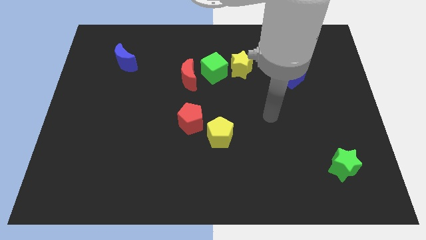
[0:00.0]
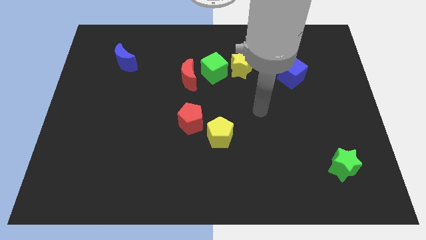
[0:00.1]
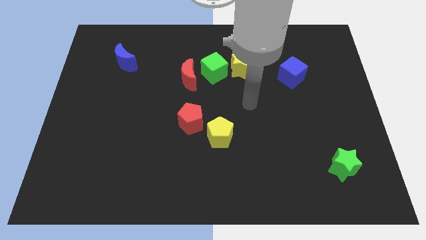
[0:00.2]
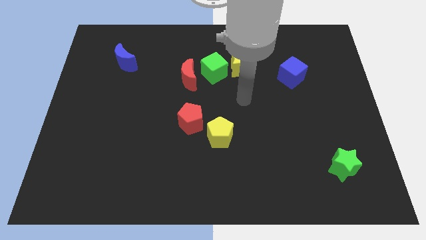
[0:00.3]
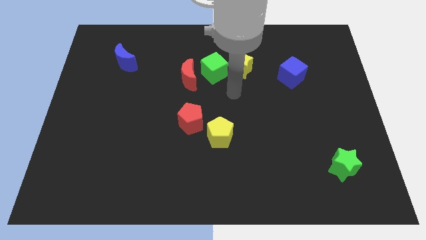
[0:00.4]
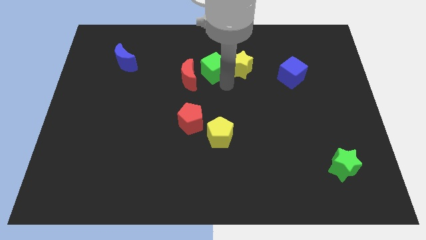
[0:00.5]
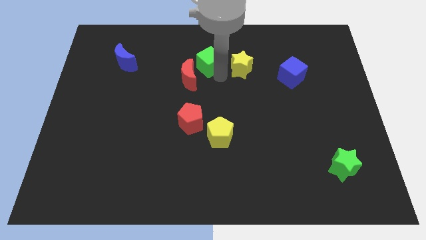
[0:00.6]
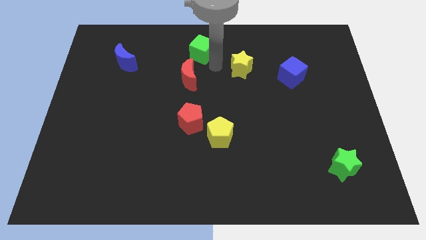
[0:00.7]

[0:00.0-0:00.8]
separate the yellow star from the green cube

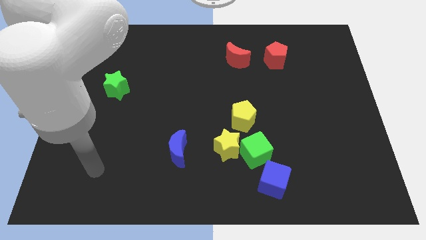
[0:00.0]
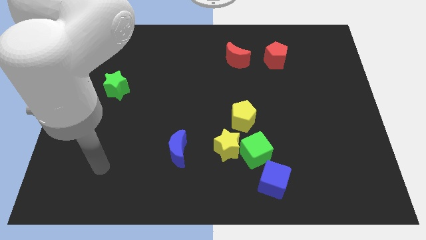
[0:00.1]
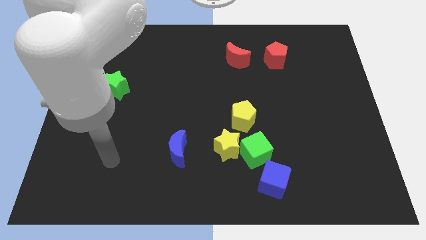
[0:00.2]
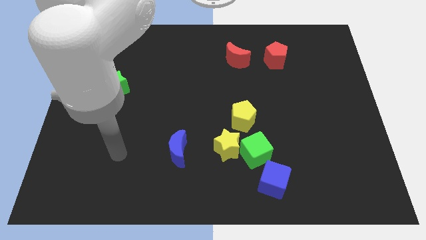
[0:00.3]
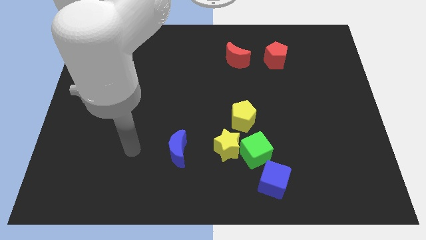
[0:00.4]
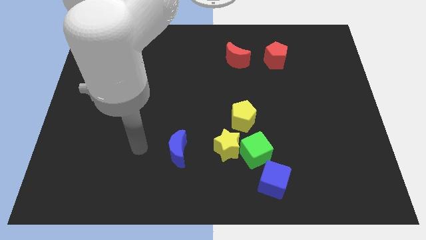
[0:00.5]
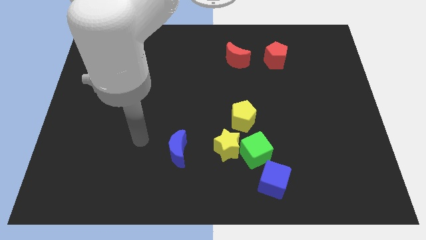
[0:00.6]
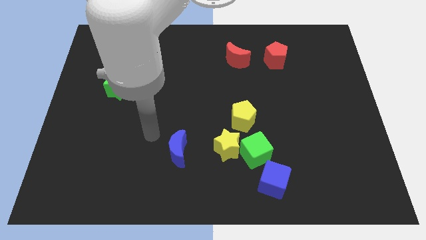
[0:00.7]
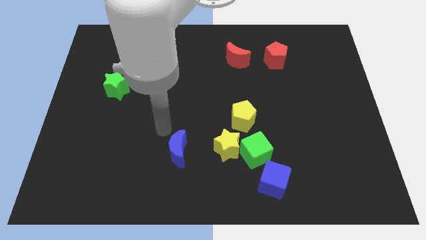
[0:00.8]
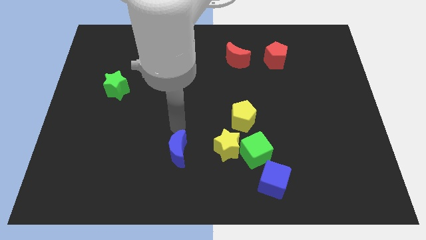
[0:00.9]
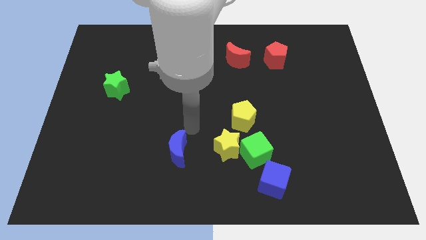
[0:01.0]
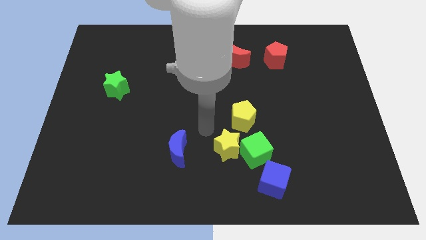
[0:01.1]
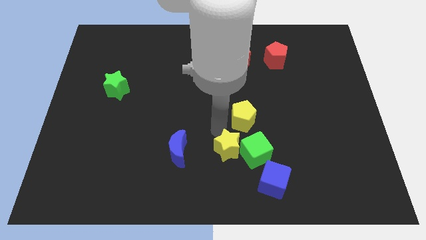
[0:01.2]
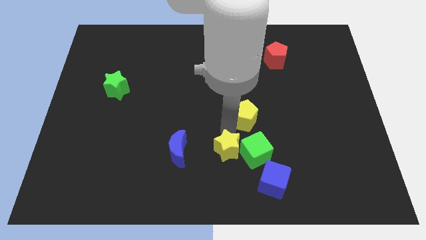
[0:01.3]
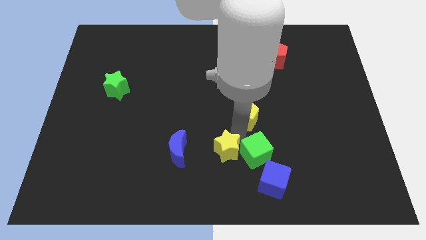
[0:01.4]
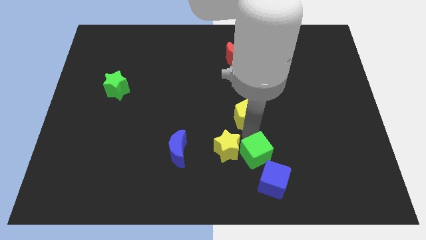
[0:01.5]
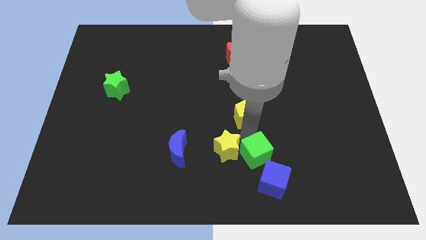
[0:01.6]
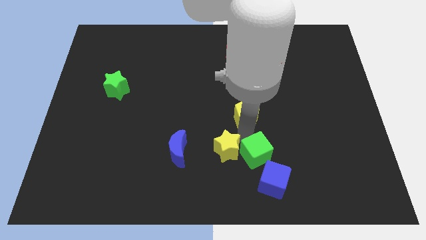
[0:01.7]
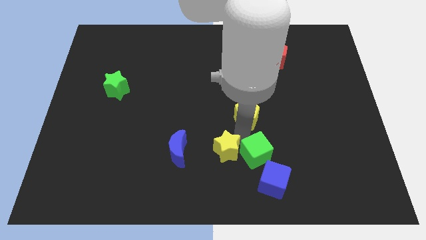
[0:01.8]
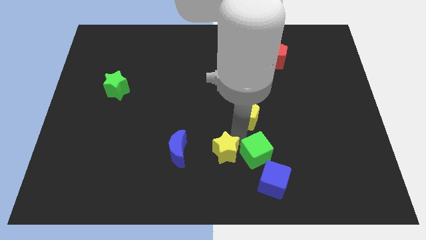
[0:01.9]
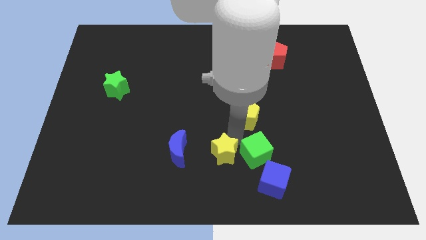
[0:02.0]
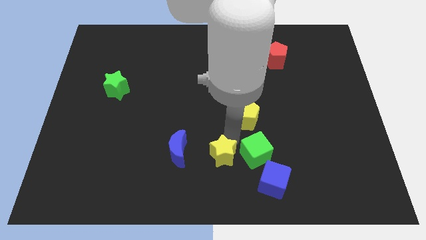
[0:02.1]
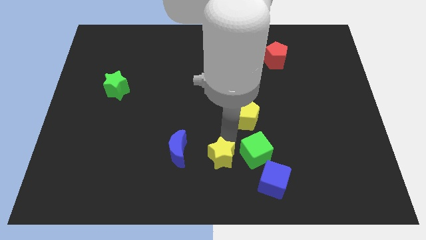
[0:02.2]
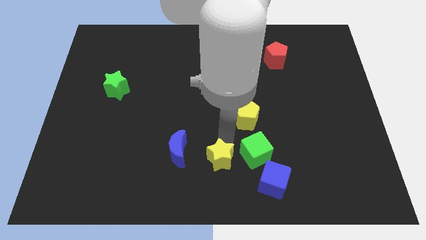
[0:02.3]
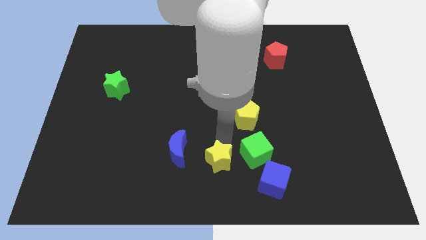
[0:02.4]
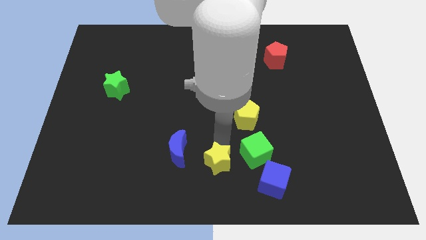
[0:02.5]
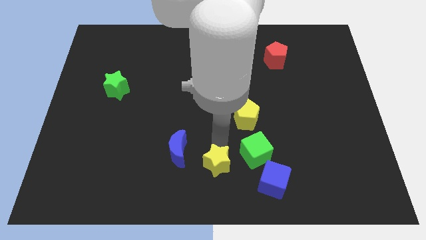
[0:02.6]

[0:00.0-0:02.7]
move the yellow star away from the green cube and yellow pentagon

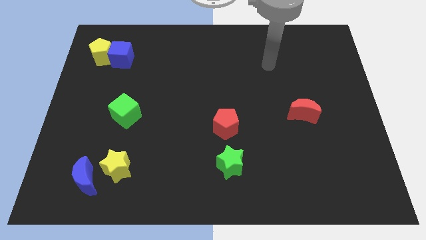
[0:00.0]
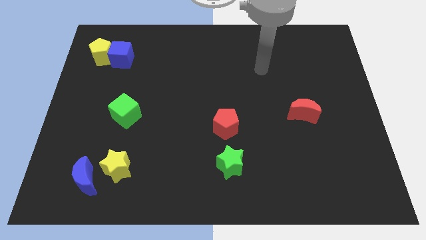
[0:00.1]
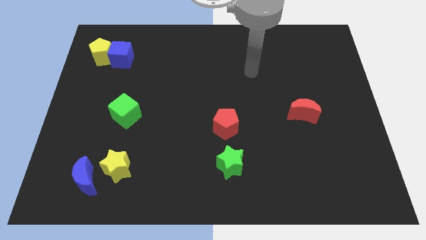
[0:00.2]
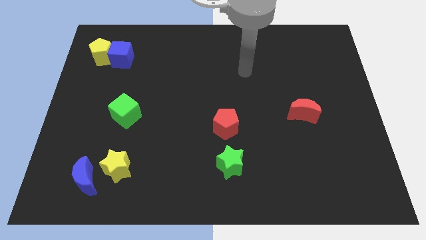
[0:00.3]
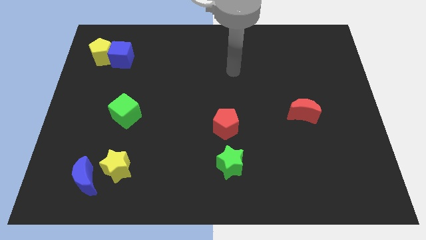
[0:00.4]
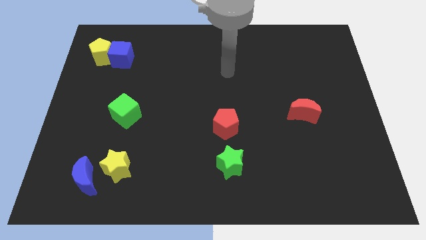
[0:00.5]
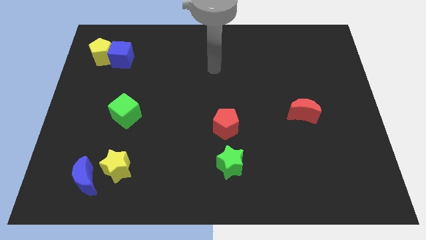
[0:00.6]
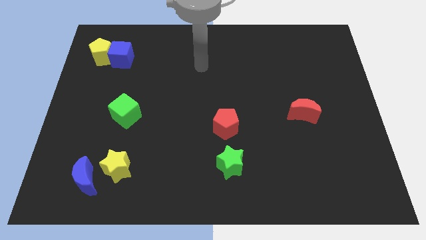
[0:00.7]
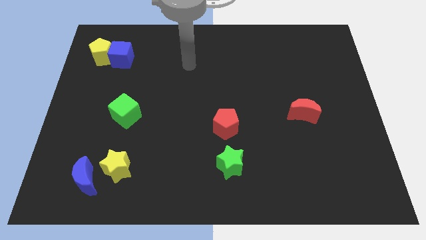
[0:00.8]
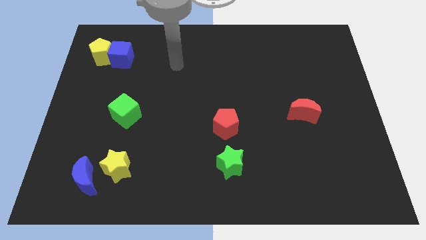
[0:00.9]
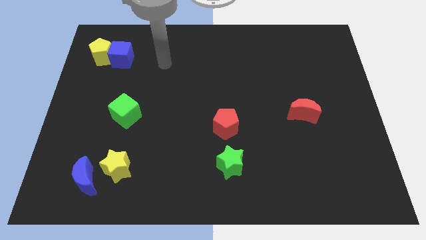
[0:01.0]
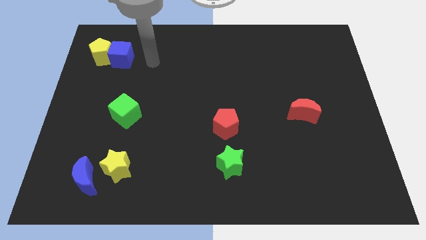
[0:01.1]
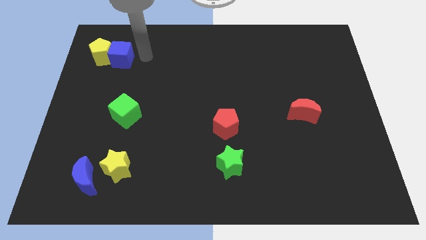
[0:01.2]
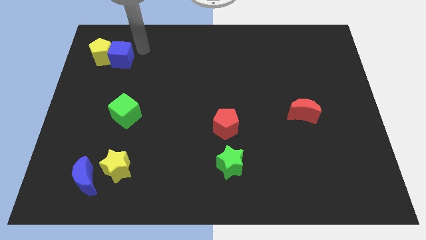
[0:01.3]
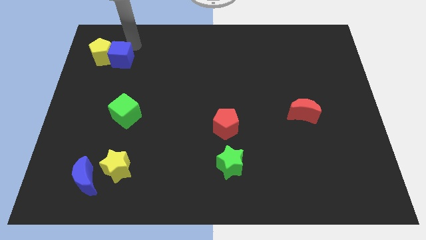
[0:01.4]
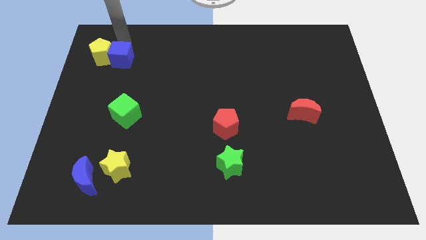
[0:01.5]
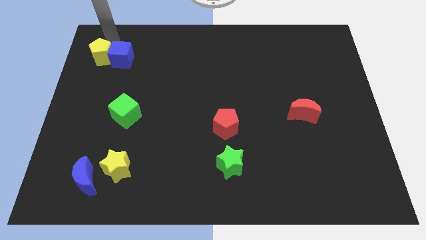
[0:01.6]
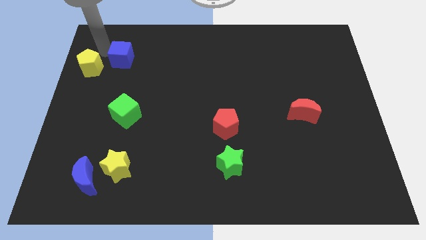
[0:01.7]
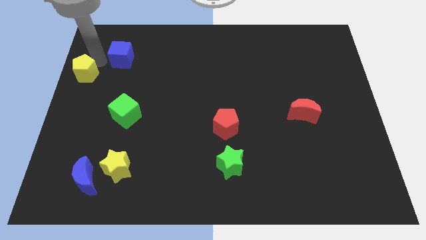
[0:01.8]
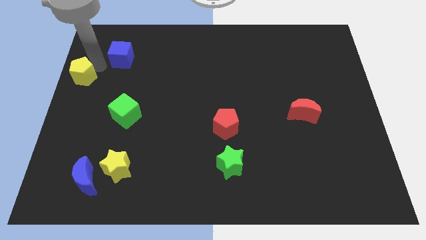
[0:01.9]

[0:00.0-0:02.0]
pull the blue cube apart from the yellow pentagon

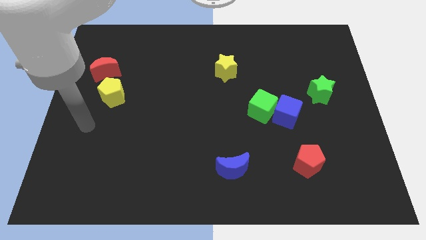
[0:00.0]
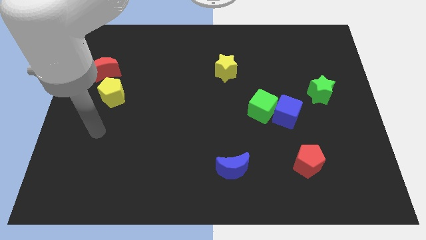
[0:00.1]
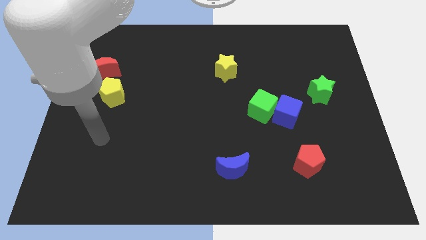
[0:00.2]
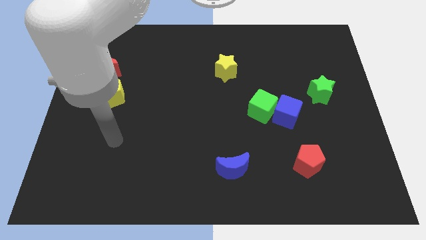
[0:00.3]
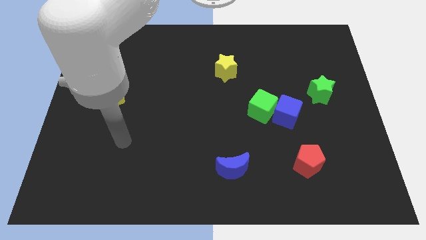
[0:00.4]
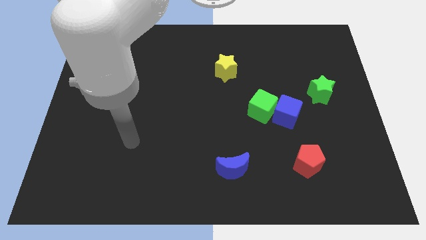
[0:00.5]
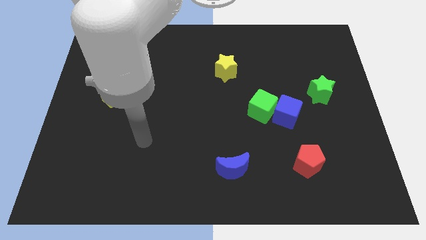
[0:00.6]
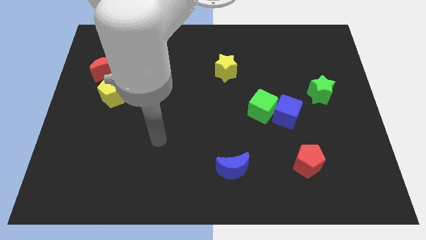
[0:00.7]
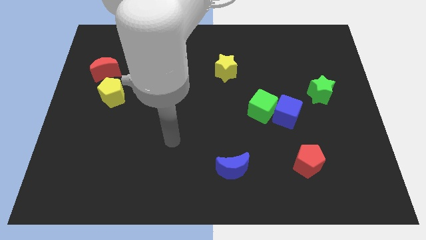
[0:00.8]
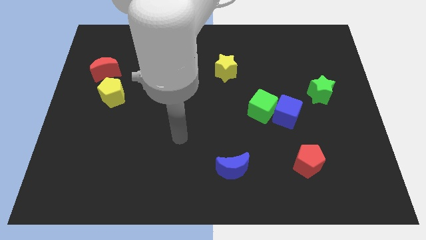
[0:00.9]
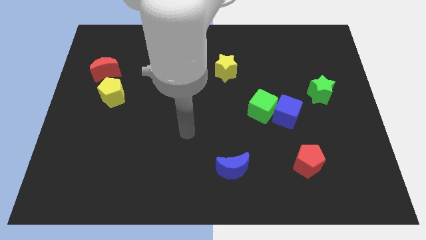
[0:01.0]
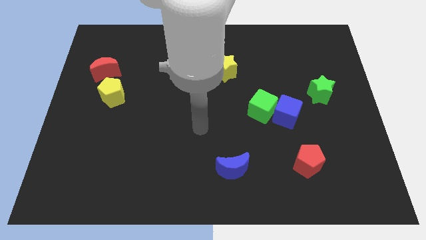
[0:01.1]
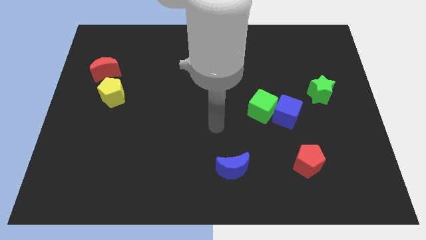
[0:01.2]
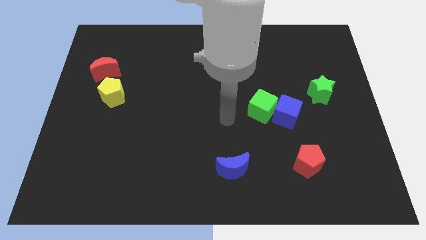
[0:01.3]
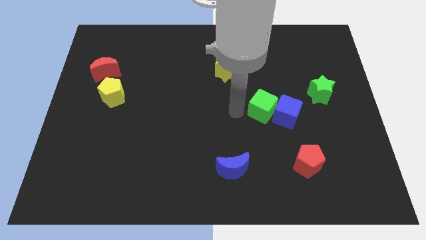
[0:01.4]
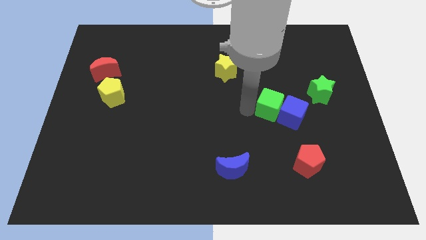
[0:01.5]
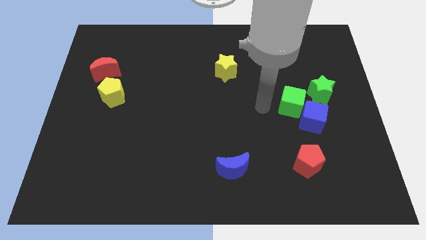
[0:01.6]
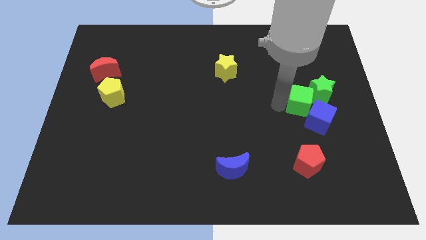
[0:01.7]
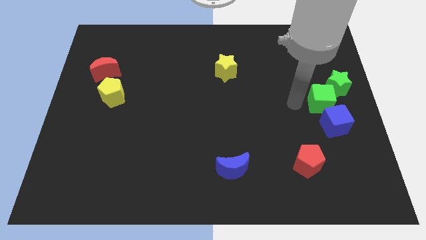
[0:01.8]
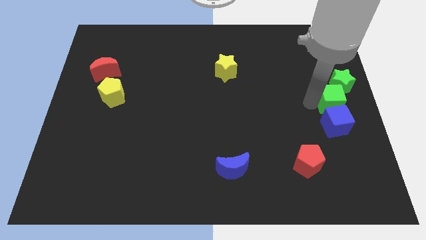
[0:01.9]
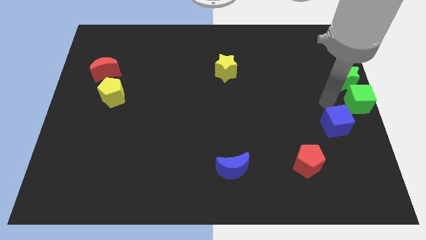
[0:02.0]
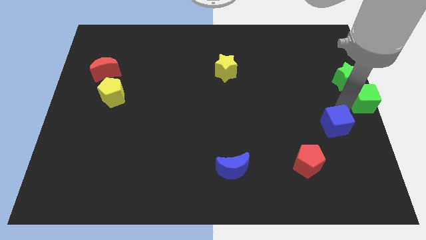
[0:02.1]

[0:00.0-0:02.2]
move the blue cube away from the green cube

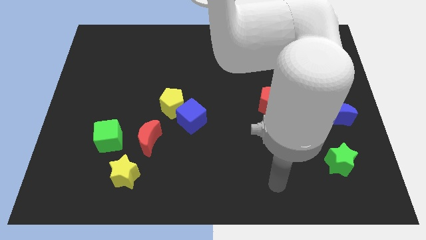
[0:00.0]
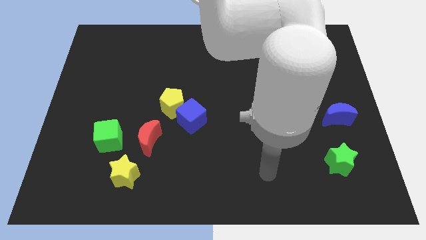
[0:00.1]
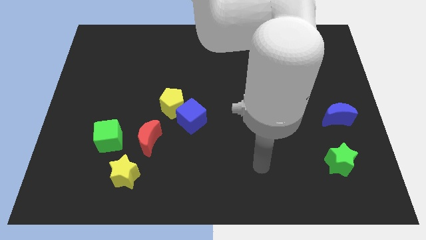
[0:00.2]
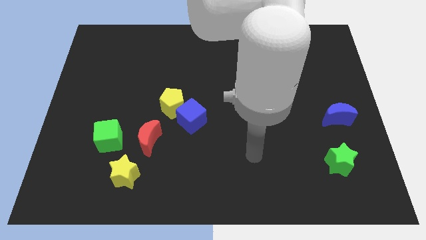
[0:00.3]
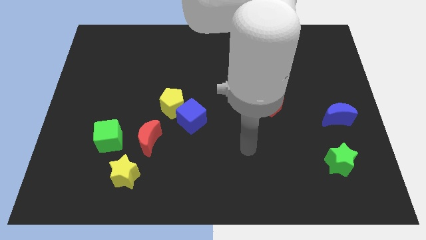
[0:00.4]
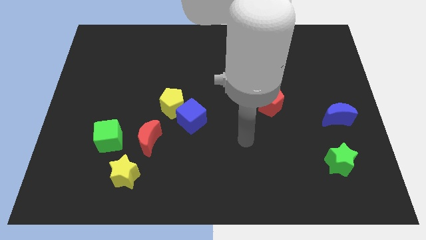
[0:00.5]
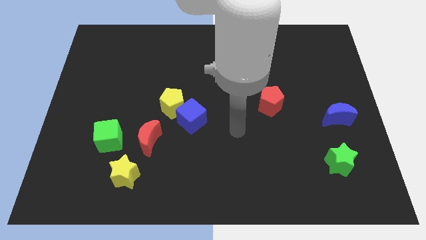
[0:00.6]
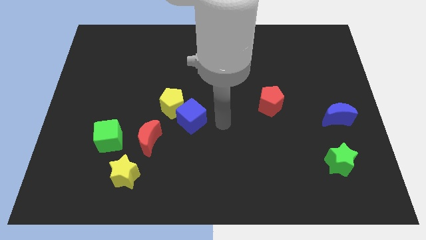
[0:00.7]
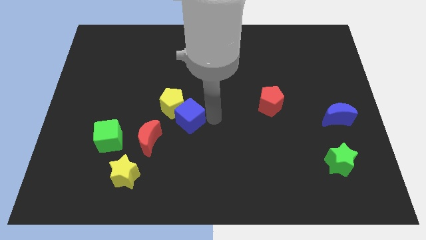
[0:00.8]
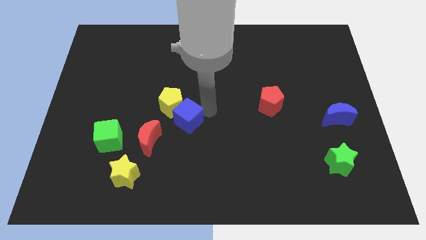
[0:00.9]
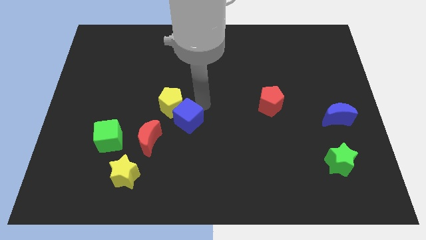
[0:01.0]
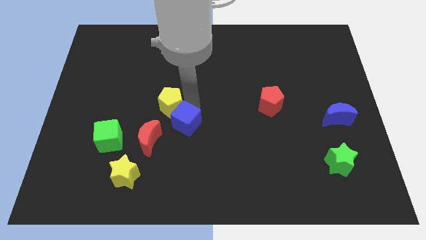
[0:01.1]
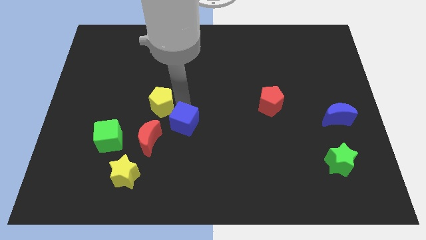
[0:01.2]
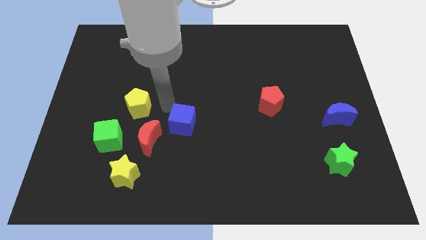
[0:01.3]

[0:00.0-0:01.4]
move the blue cube away from the yellow pentagon
